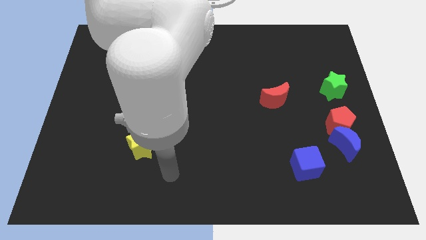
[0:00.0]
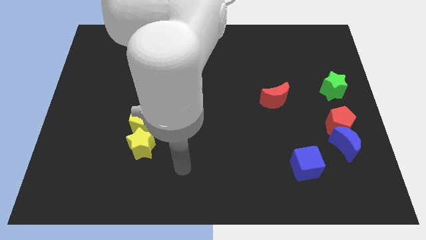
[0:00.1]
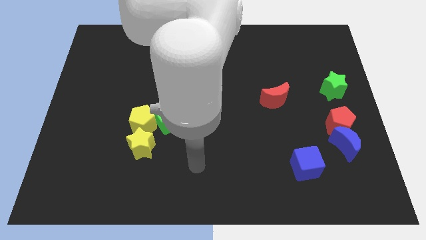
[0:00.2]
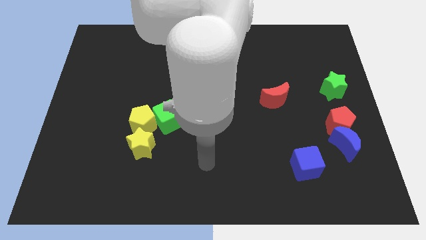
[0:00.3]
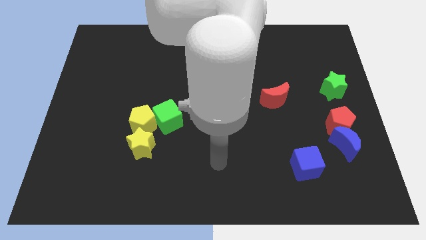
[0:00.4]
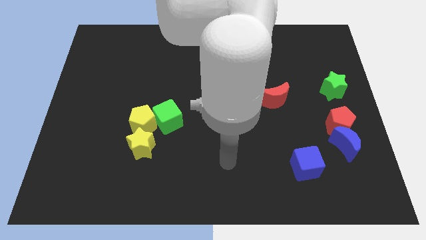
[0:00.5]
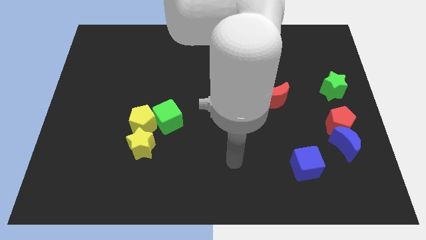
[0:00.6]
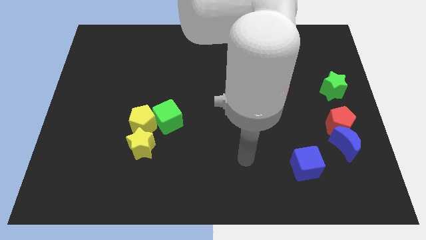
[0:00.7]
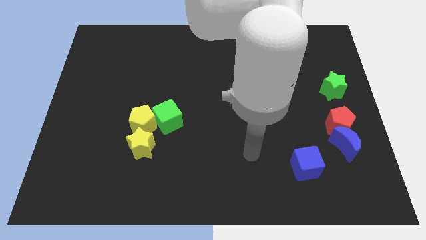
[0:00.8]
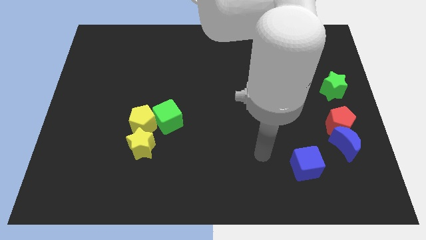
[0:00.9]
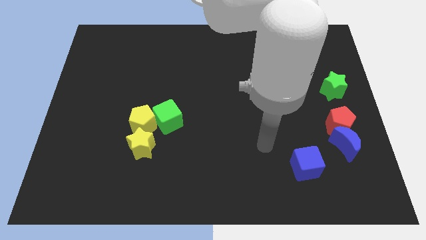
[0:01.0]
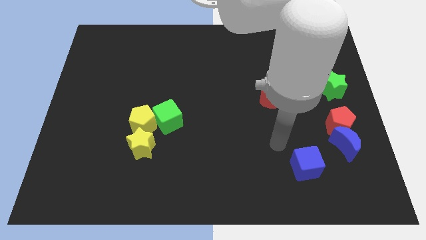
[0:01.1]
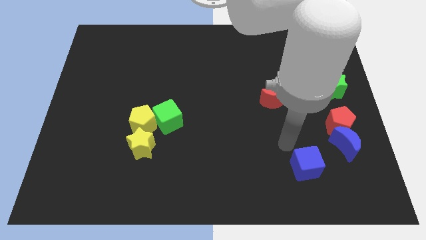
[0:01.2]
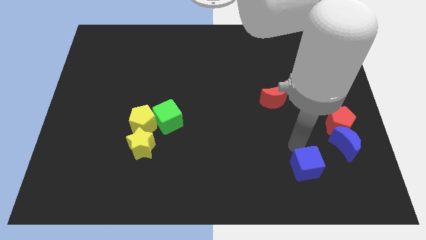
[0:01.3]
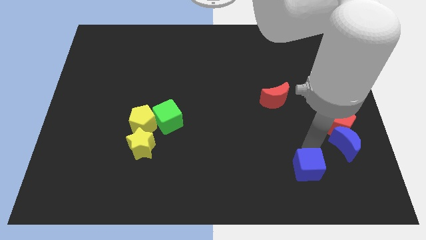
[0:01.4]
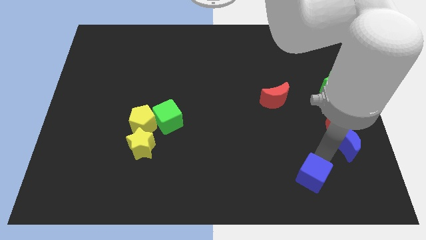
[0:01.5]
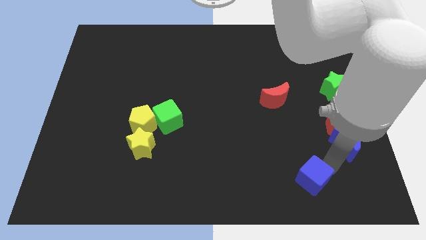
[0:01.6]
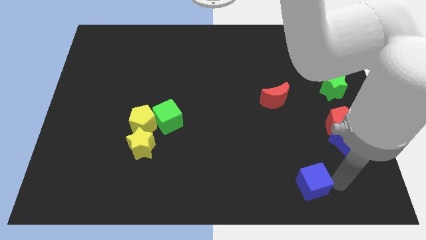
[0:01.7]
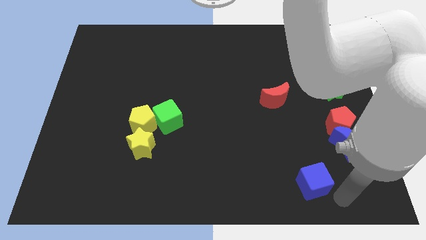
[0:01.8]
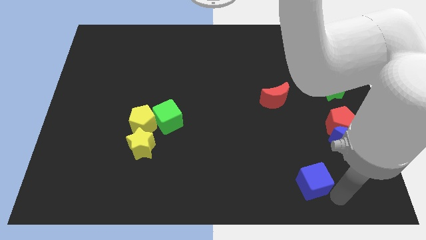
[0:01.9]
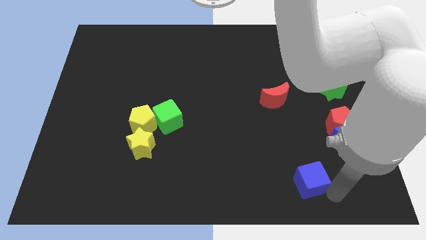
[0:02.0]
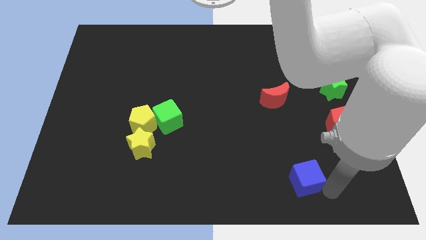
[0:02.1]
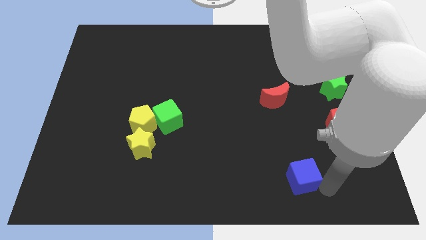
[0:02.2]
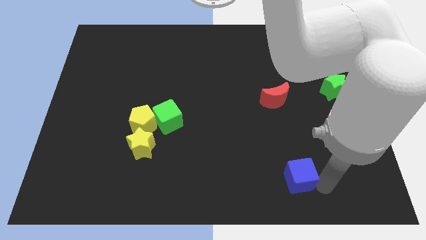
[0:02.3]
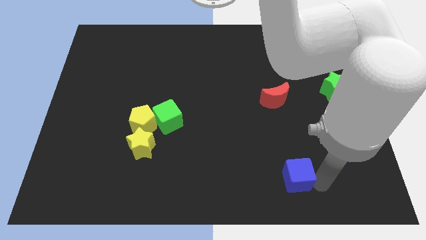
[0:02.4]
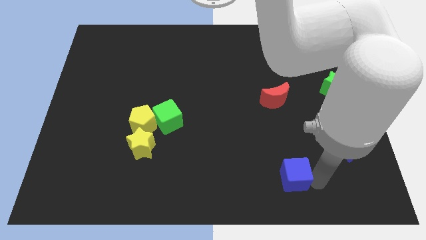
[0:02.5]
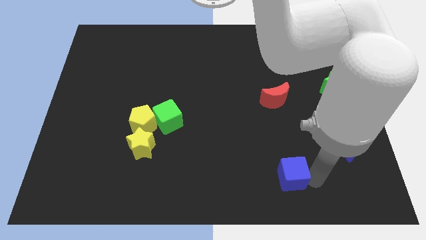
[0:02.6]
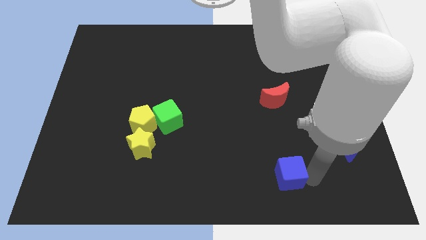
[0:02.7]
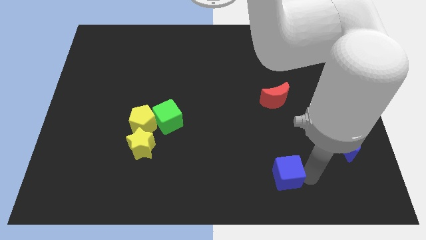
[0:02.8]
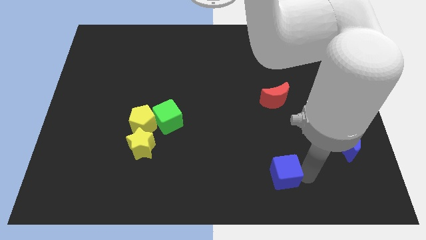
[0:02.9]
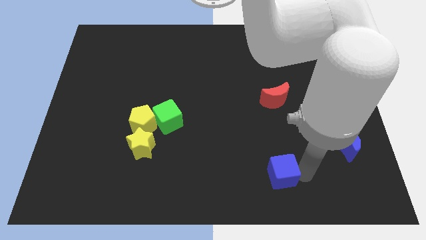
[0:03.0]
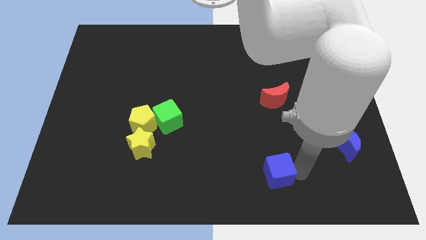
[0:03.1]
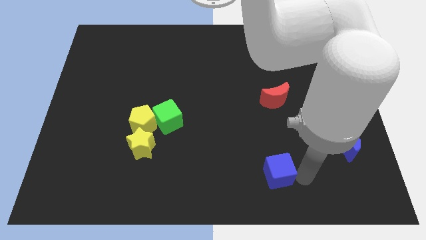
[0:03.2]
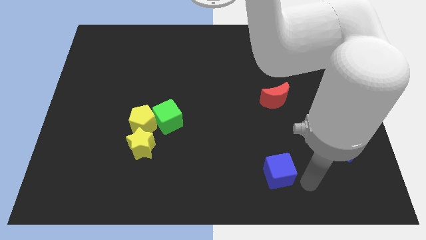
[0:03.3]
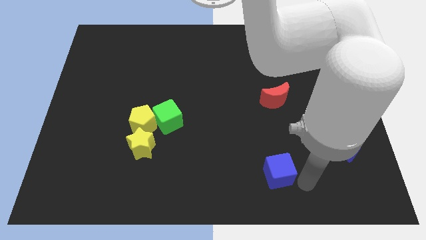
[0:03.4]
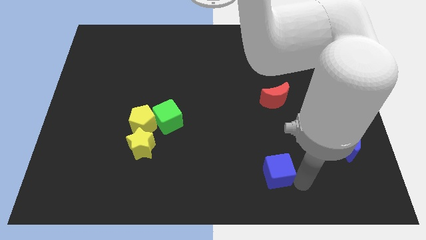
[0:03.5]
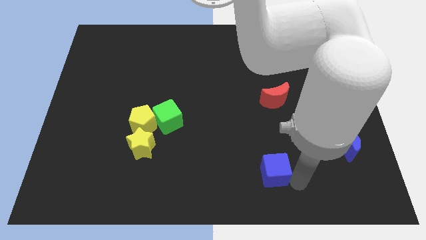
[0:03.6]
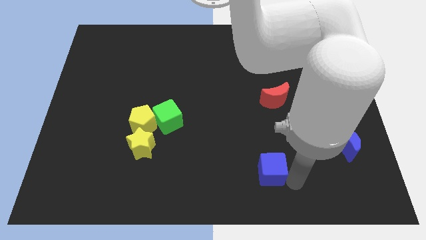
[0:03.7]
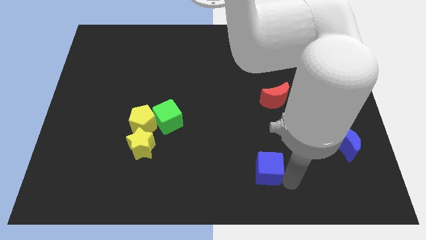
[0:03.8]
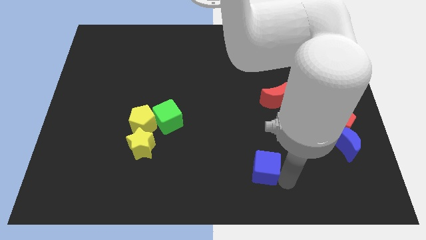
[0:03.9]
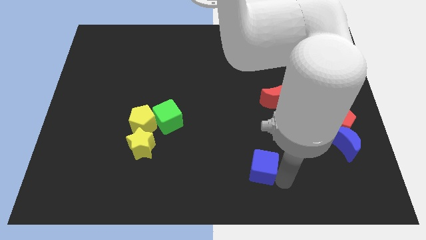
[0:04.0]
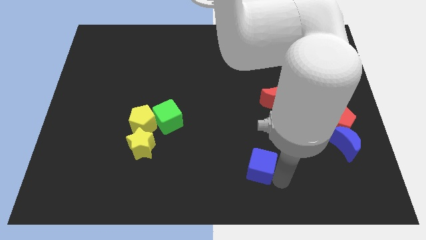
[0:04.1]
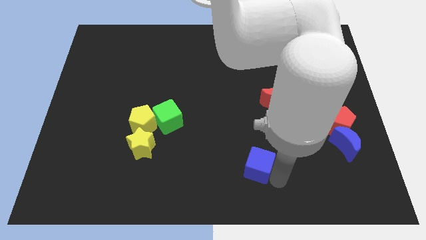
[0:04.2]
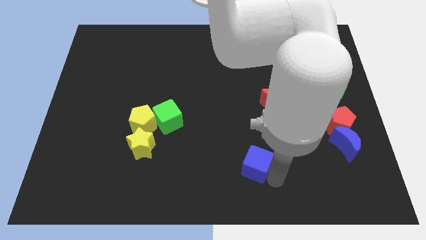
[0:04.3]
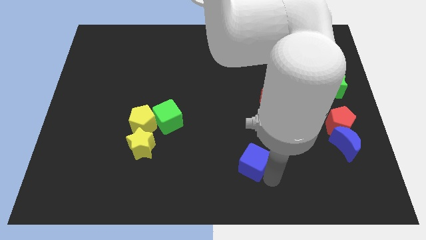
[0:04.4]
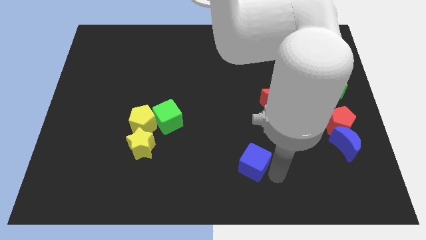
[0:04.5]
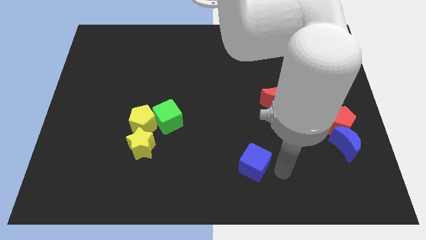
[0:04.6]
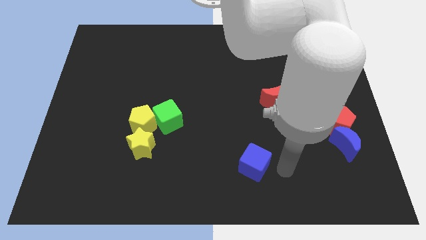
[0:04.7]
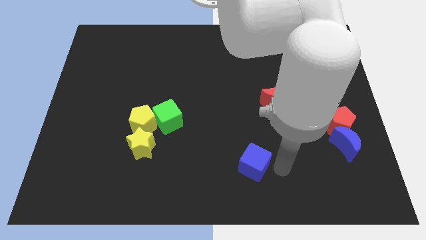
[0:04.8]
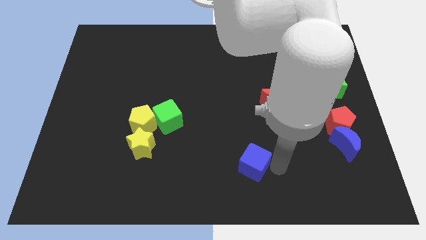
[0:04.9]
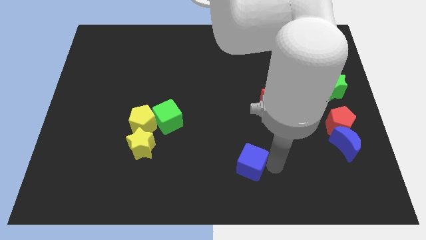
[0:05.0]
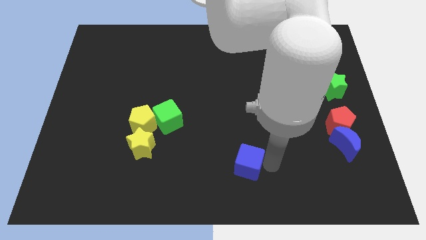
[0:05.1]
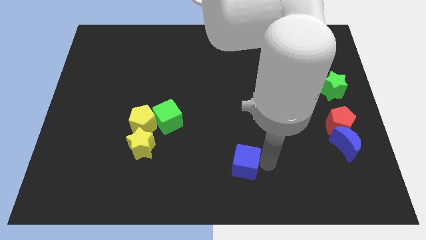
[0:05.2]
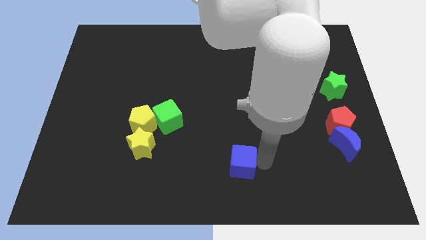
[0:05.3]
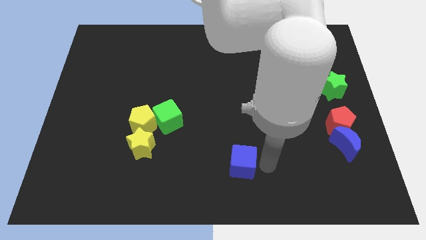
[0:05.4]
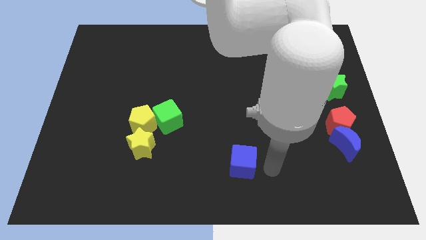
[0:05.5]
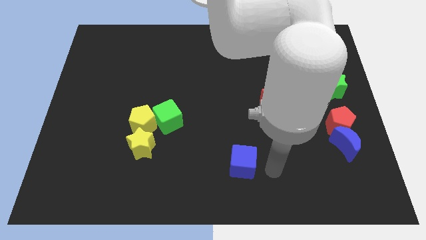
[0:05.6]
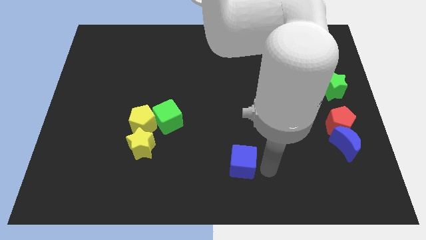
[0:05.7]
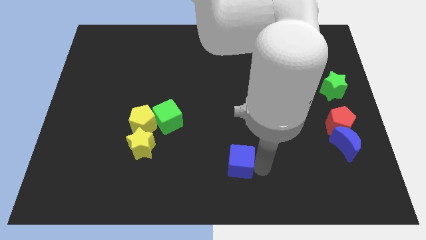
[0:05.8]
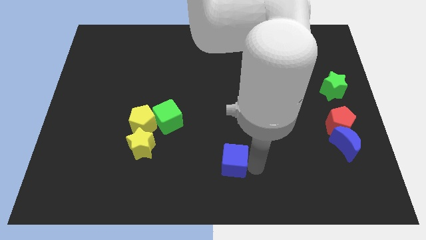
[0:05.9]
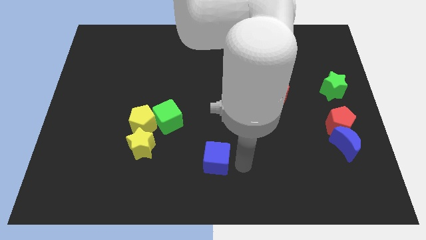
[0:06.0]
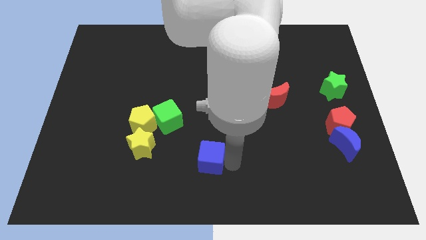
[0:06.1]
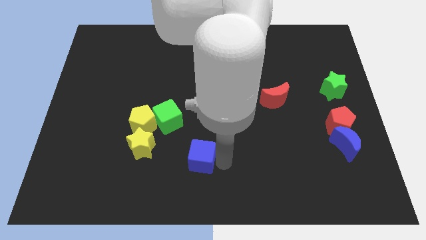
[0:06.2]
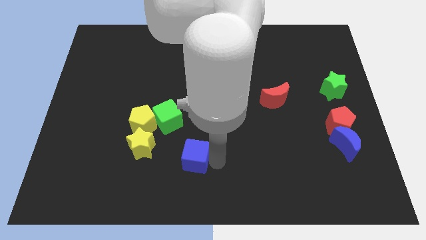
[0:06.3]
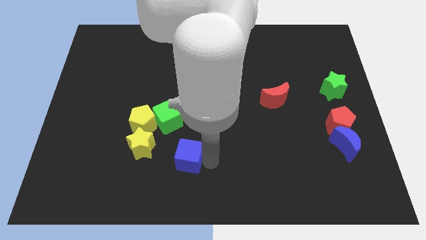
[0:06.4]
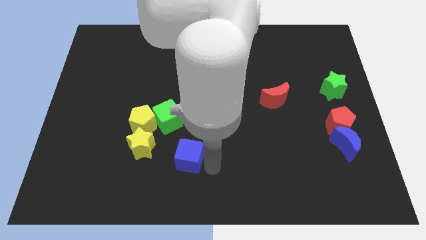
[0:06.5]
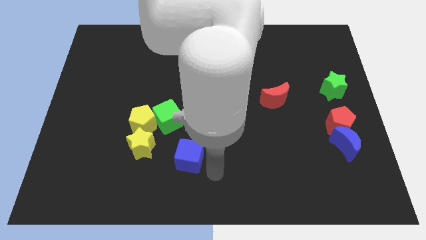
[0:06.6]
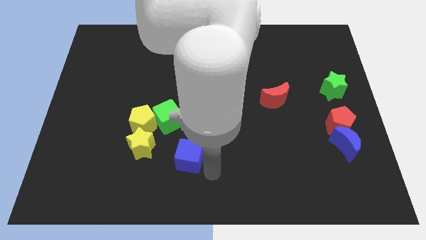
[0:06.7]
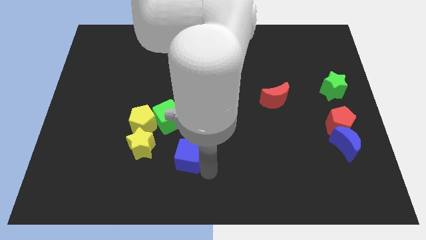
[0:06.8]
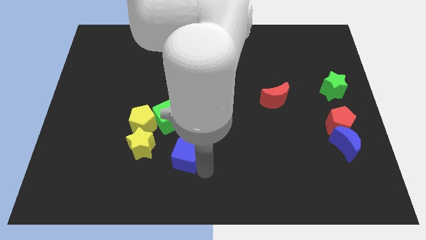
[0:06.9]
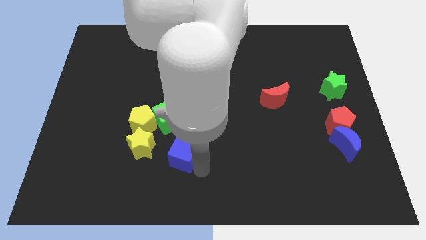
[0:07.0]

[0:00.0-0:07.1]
put the blue cube to the bottom right side of the yellow pentagon
